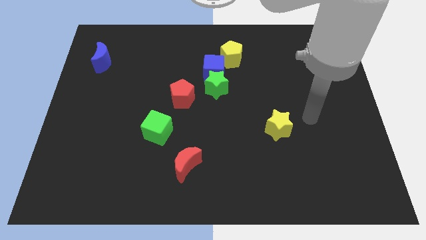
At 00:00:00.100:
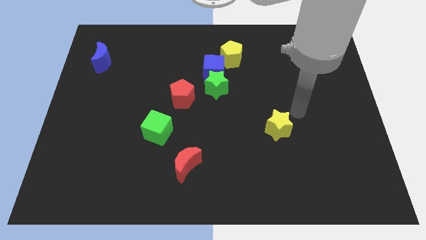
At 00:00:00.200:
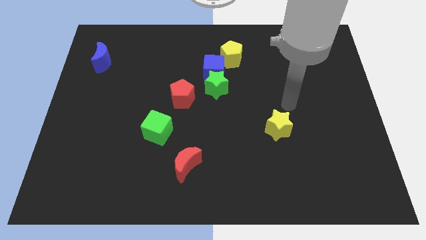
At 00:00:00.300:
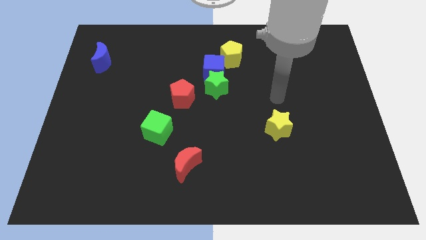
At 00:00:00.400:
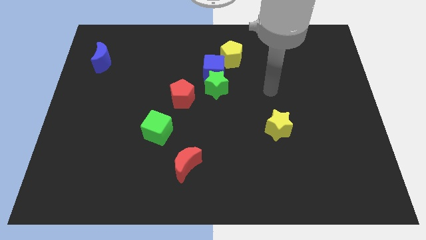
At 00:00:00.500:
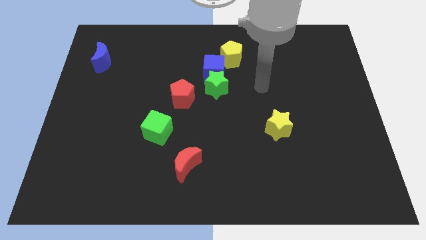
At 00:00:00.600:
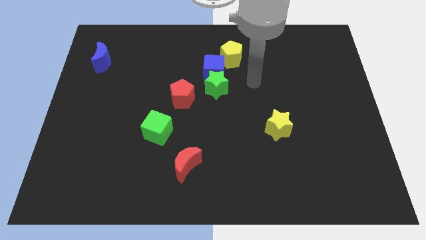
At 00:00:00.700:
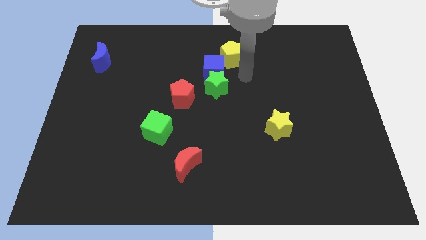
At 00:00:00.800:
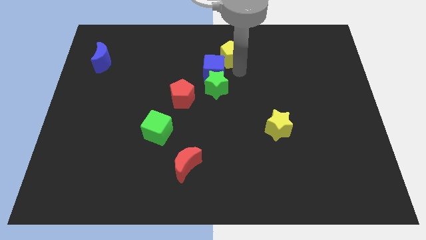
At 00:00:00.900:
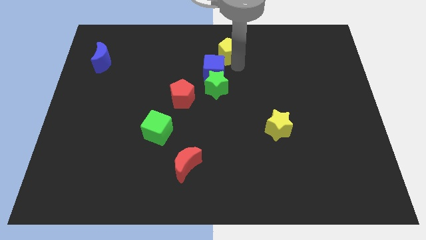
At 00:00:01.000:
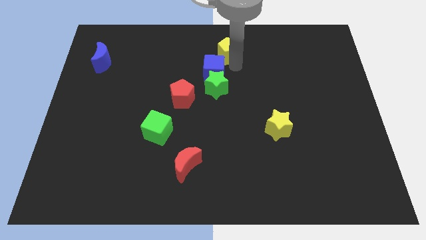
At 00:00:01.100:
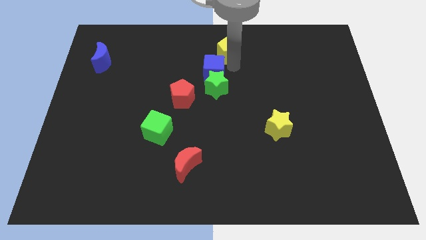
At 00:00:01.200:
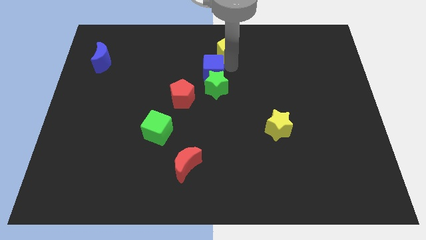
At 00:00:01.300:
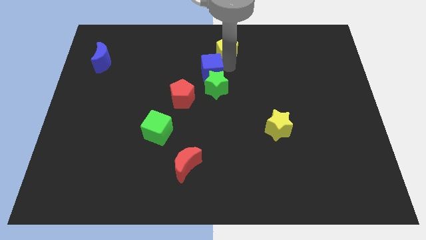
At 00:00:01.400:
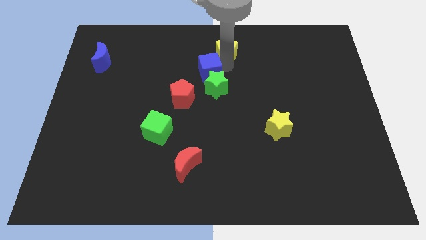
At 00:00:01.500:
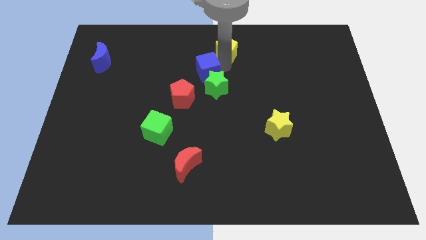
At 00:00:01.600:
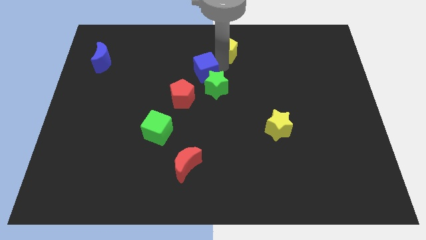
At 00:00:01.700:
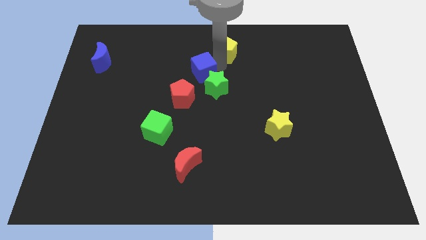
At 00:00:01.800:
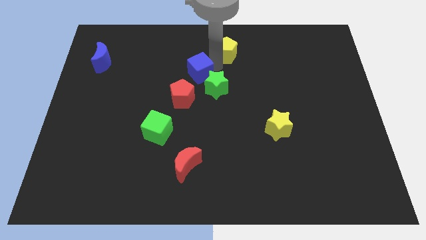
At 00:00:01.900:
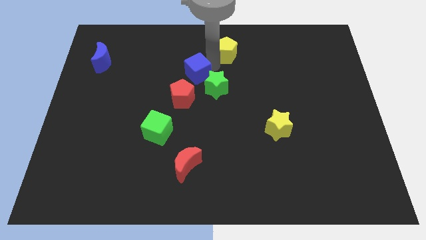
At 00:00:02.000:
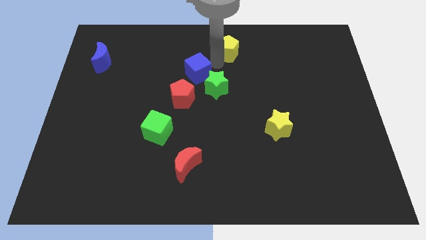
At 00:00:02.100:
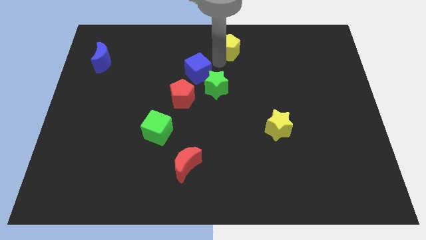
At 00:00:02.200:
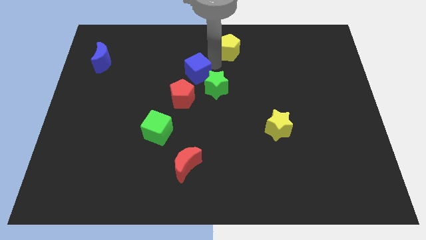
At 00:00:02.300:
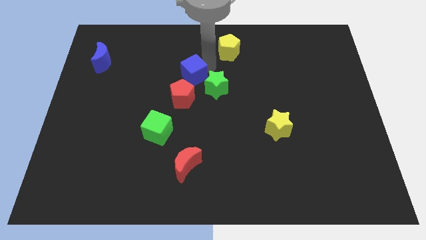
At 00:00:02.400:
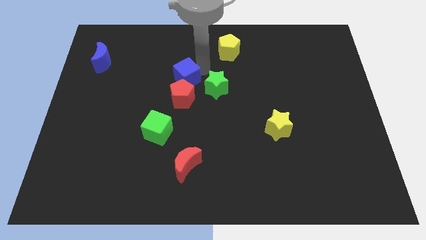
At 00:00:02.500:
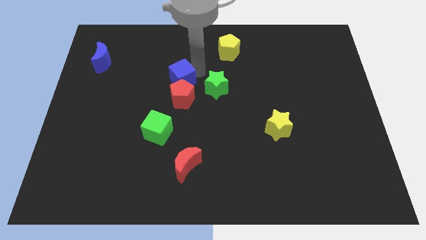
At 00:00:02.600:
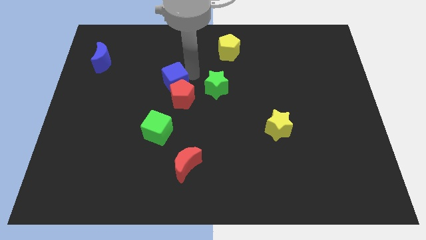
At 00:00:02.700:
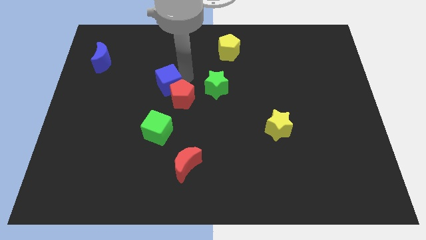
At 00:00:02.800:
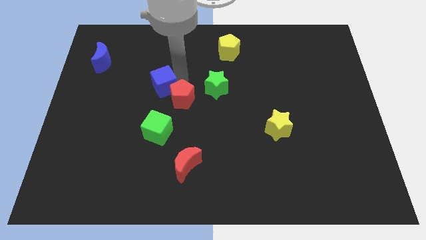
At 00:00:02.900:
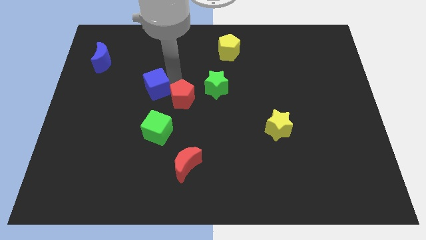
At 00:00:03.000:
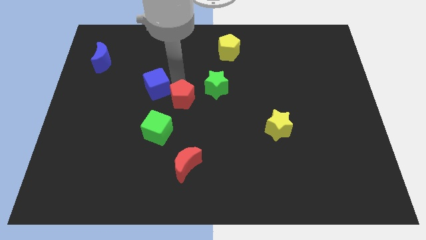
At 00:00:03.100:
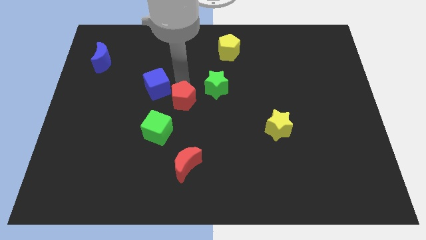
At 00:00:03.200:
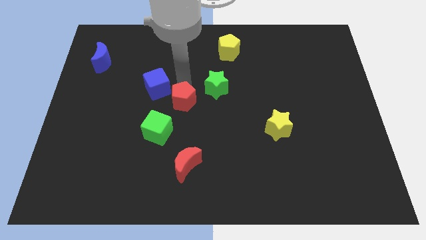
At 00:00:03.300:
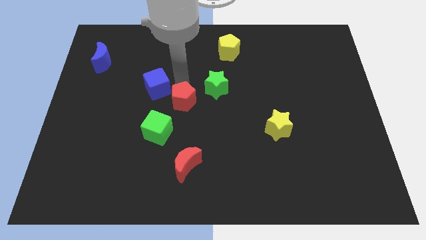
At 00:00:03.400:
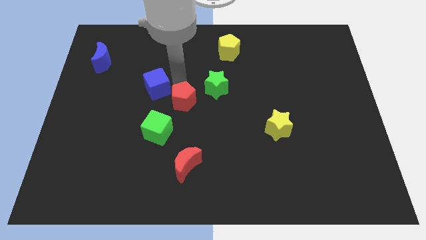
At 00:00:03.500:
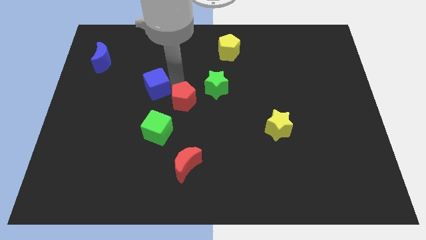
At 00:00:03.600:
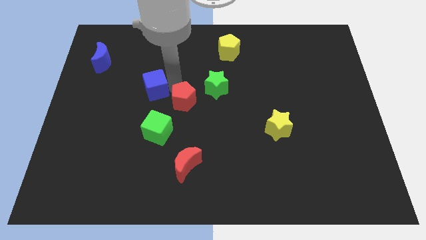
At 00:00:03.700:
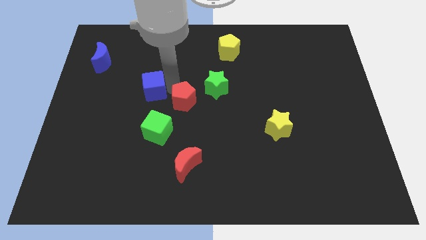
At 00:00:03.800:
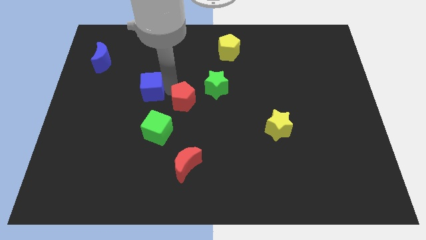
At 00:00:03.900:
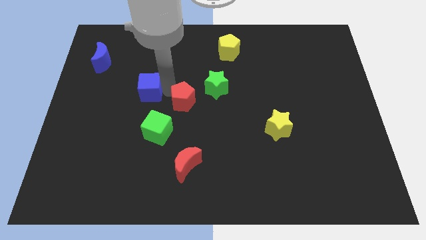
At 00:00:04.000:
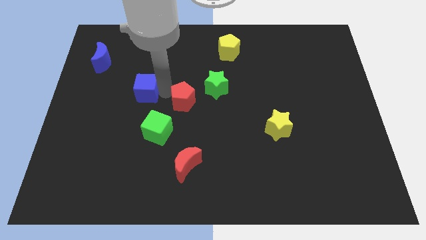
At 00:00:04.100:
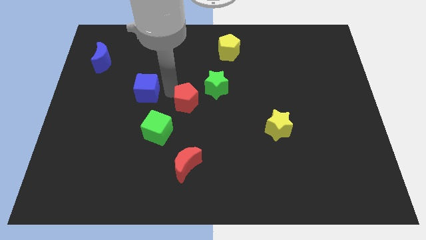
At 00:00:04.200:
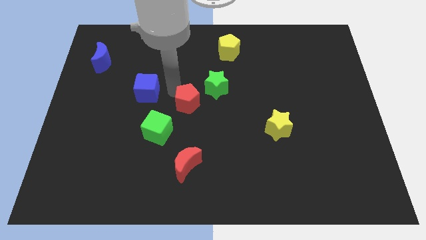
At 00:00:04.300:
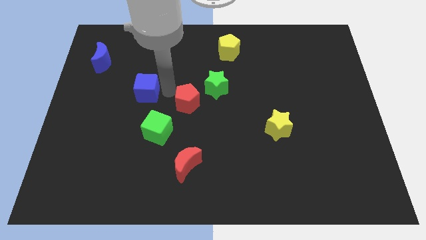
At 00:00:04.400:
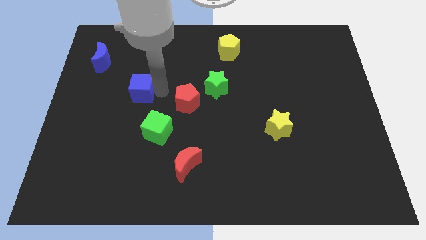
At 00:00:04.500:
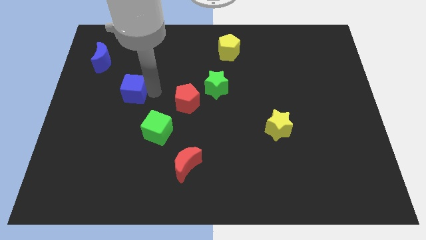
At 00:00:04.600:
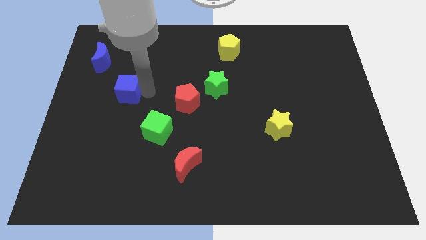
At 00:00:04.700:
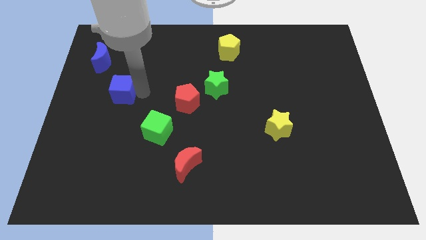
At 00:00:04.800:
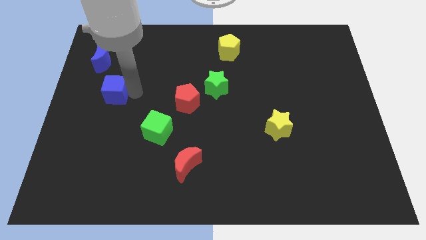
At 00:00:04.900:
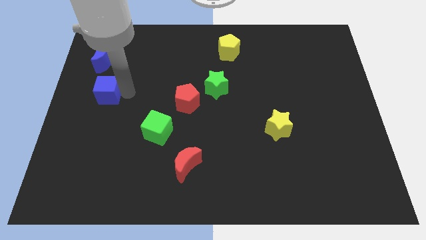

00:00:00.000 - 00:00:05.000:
push the blue cube to the left side
